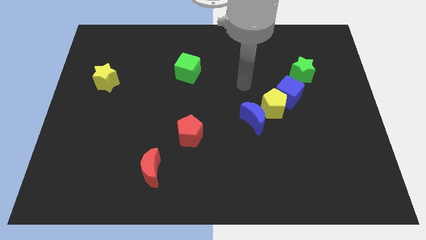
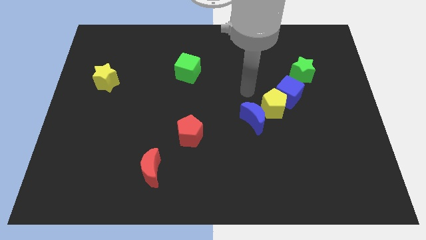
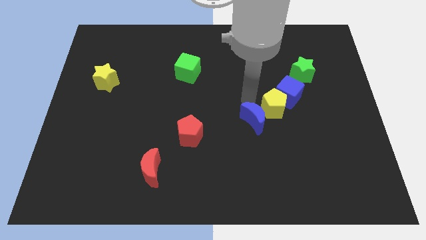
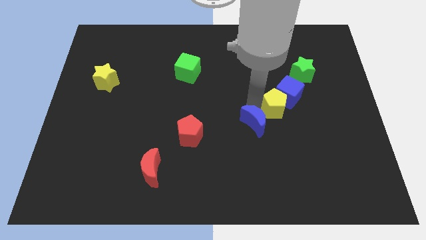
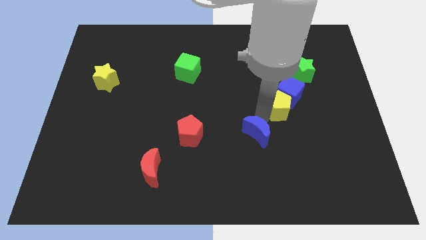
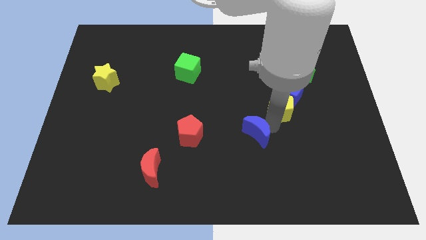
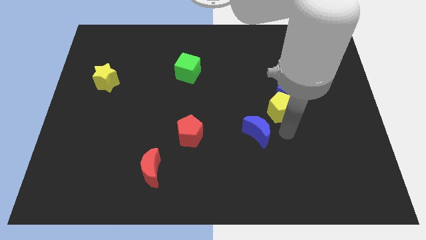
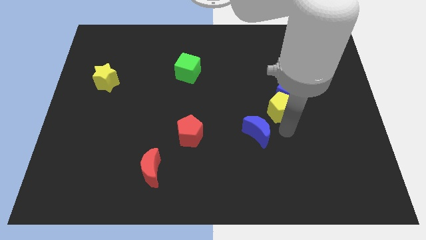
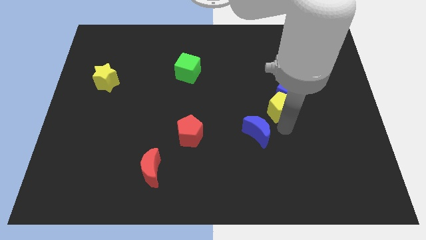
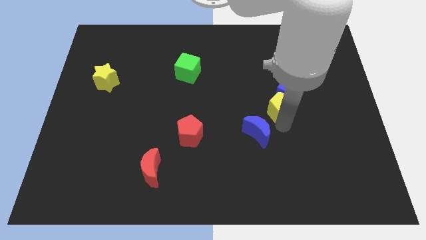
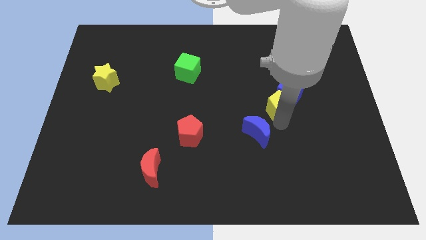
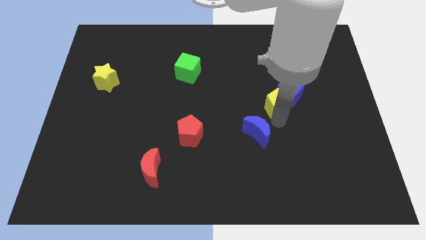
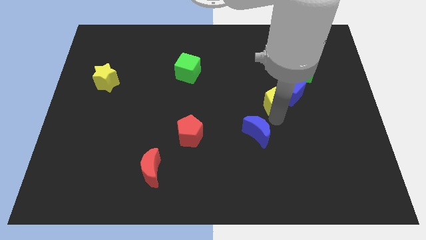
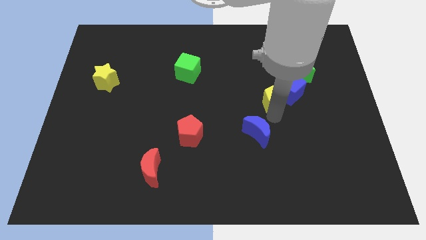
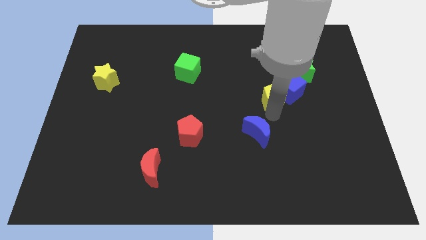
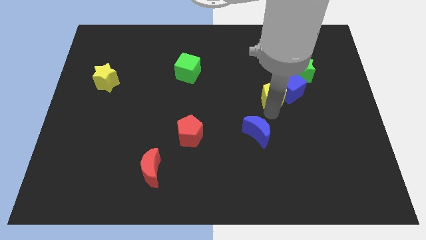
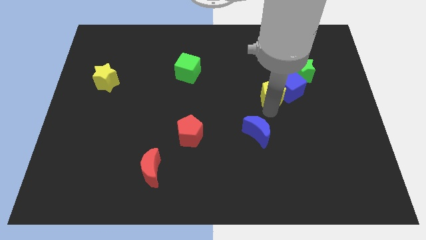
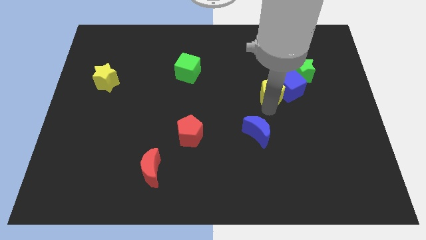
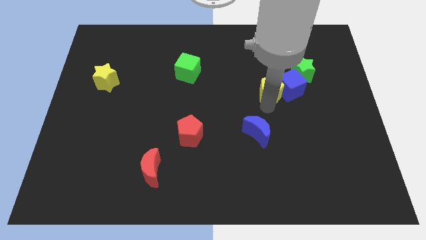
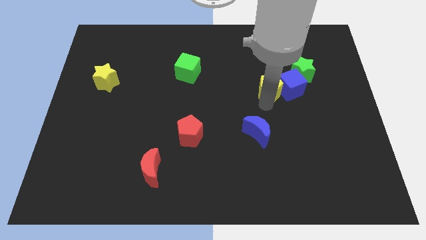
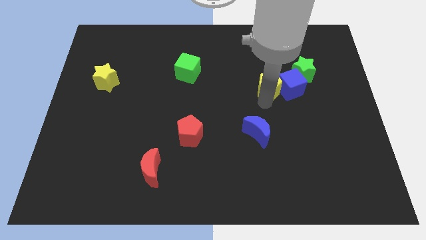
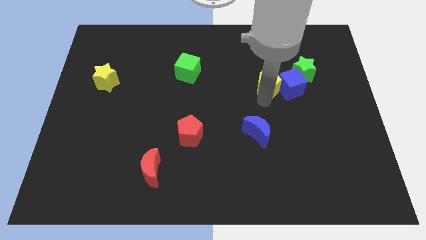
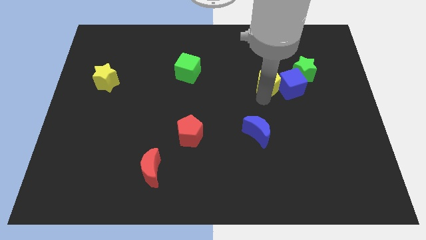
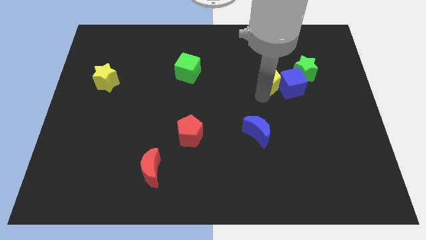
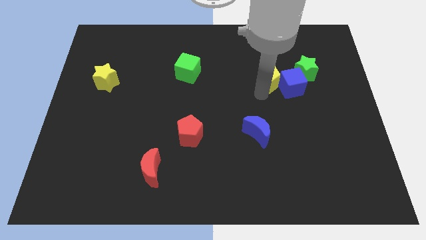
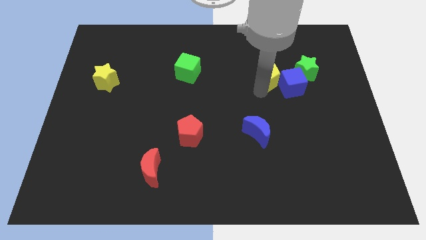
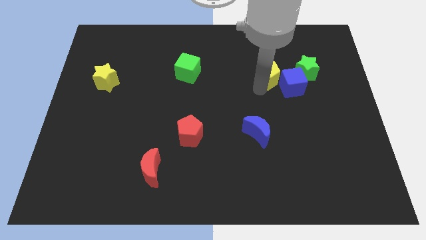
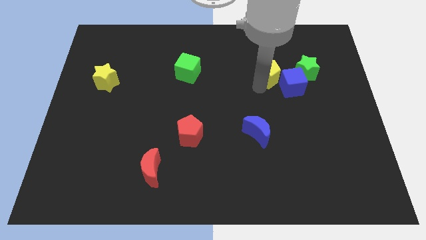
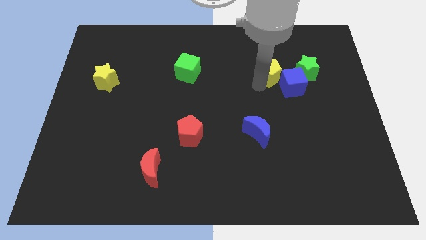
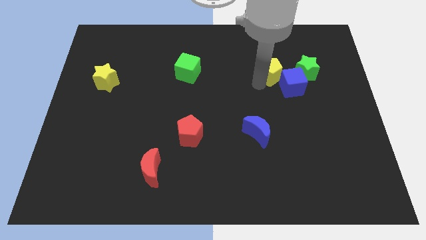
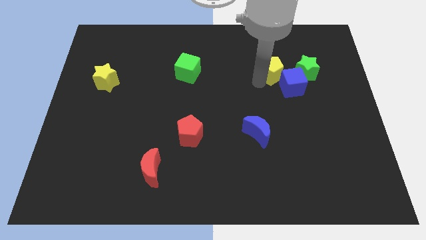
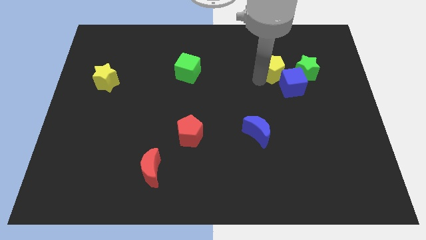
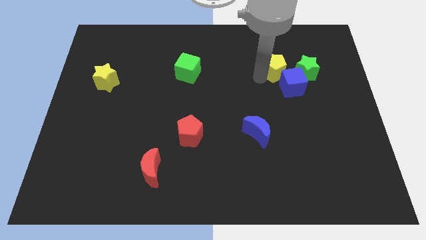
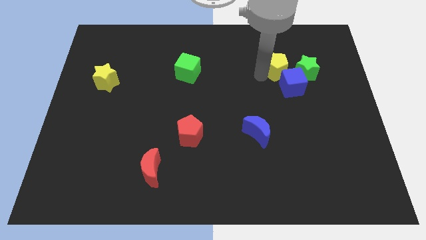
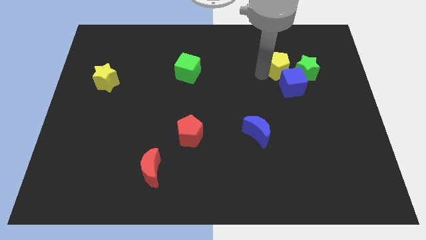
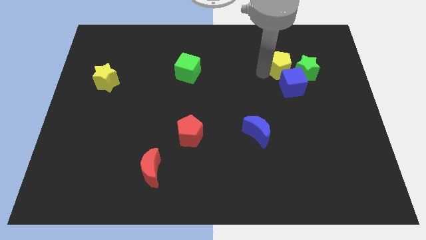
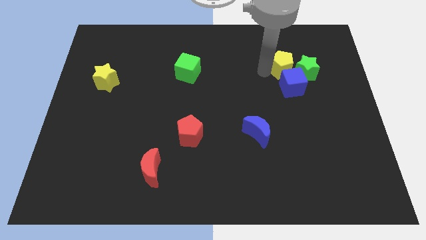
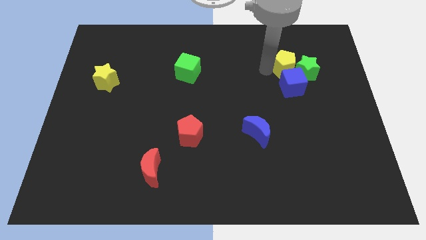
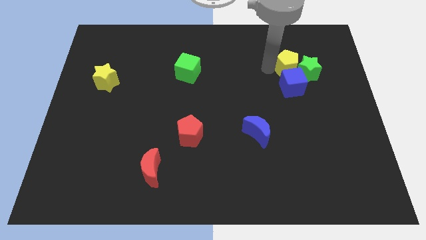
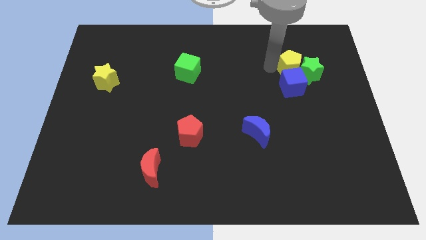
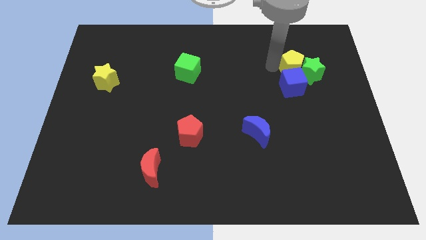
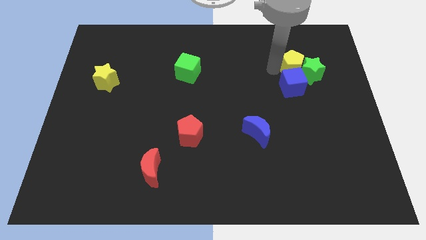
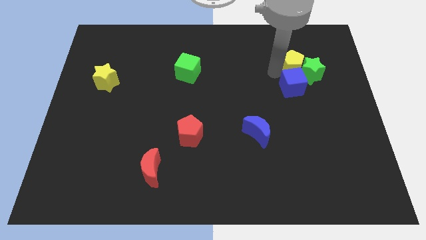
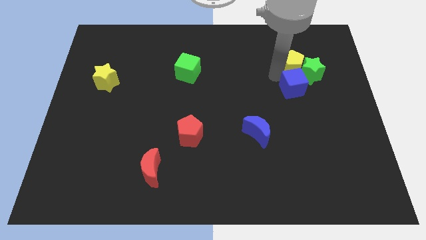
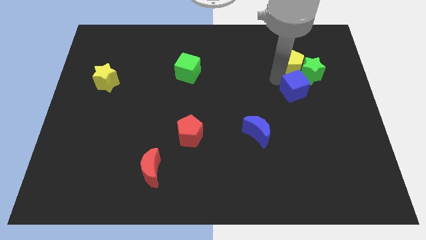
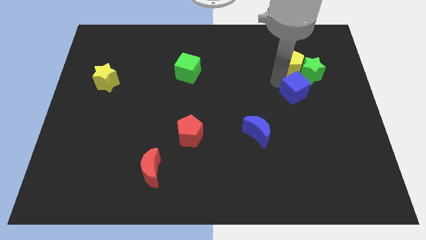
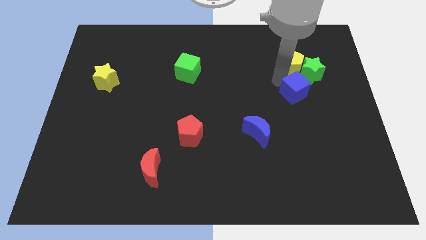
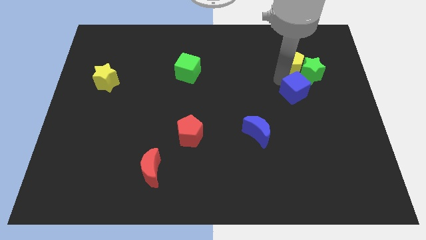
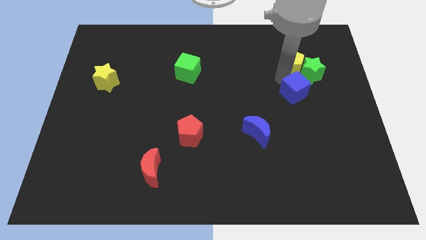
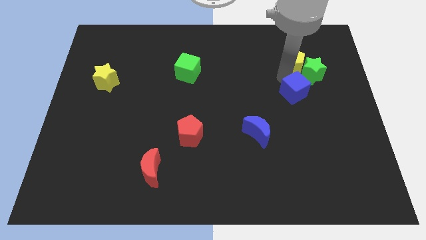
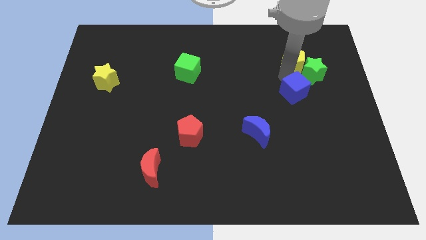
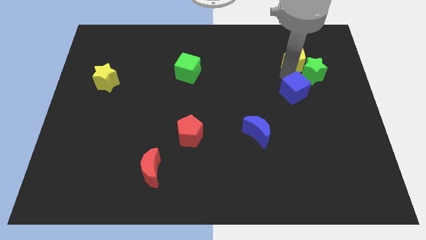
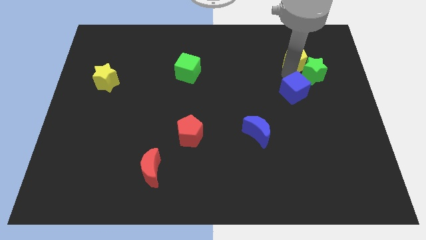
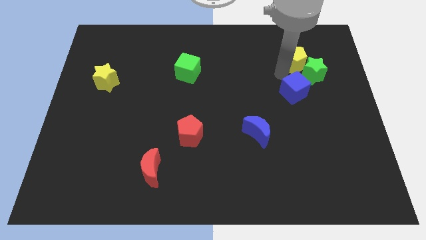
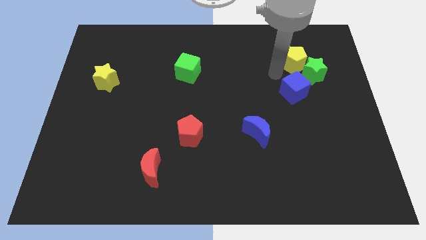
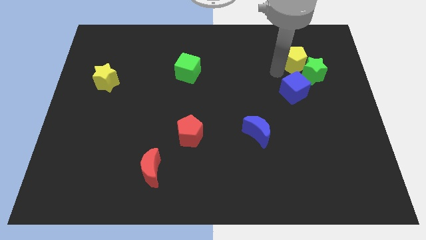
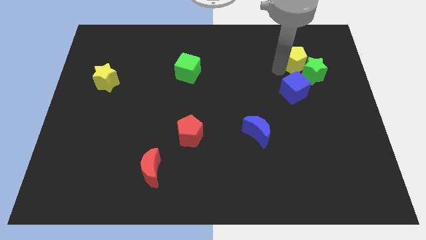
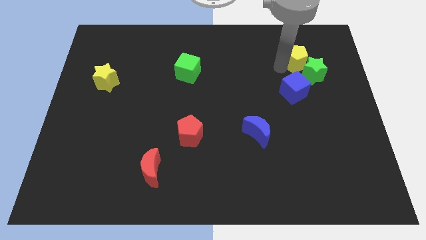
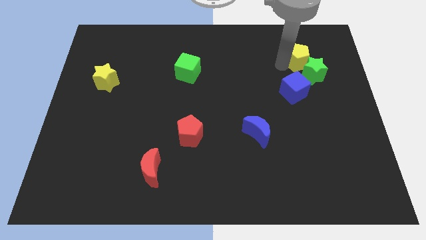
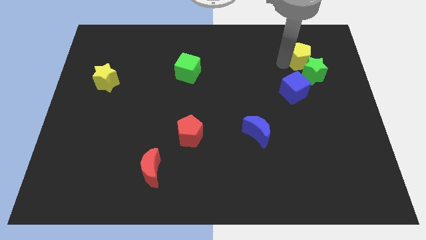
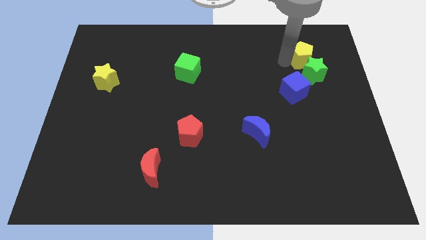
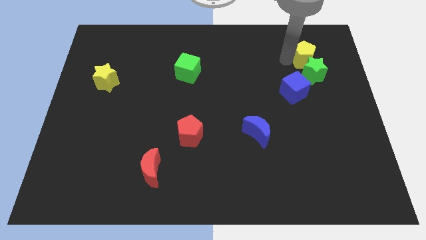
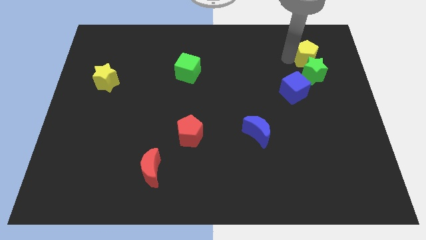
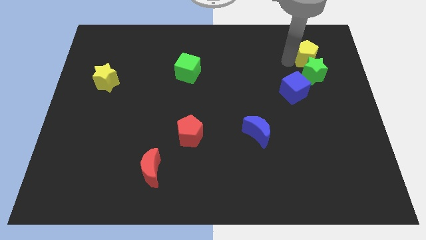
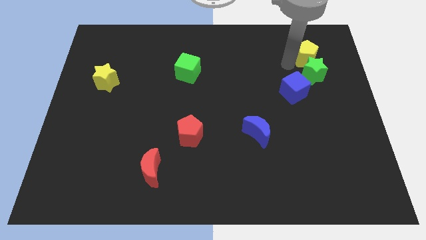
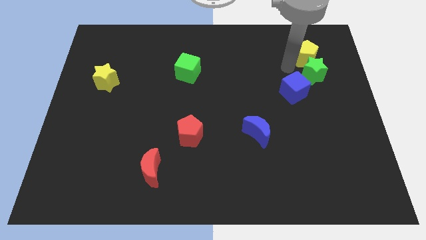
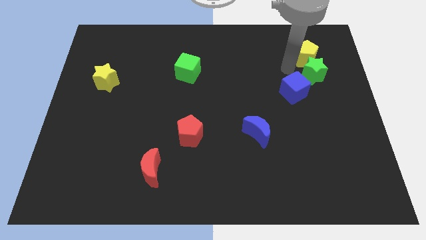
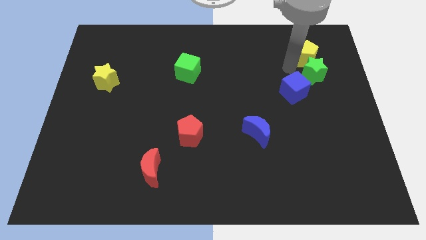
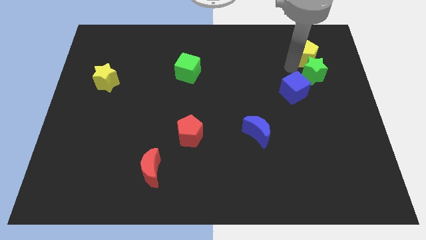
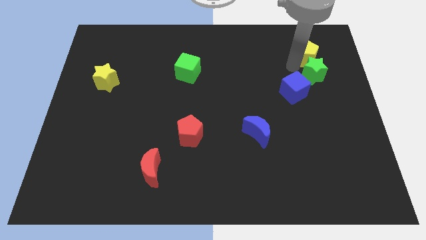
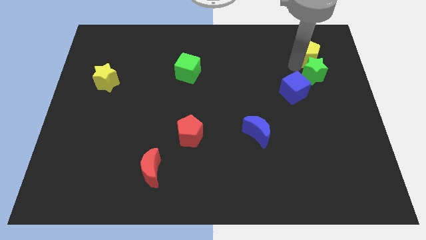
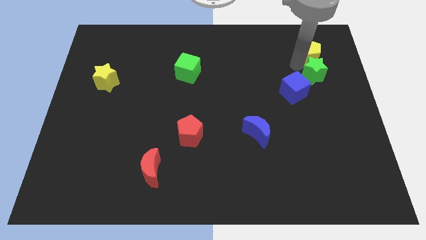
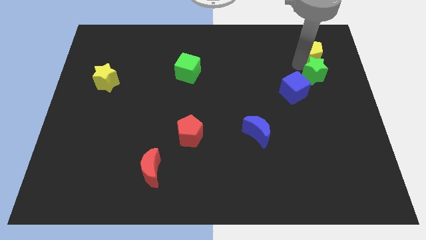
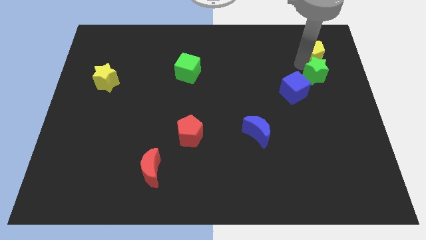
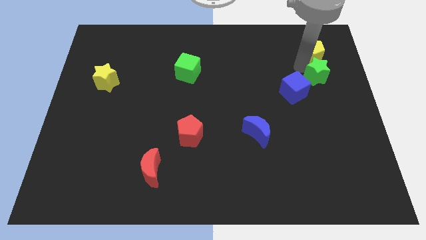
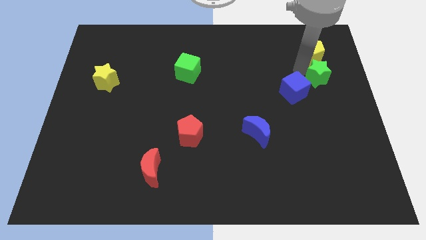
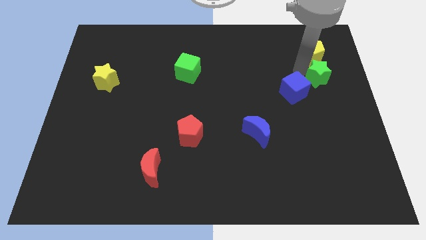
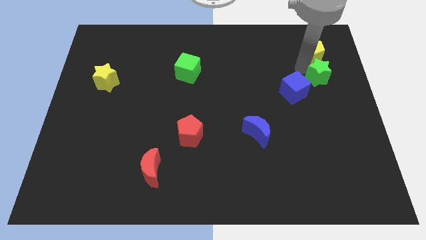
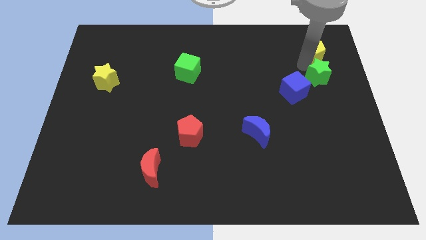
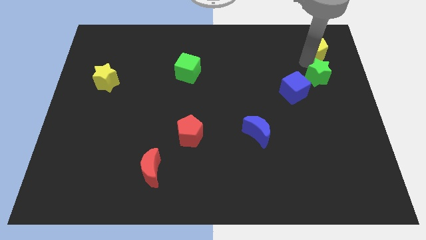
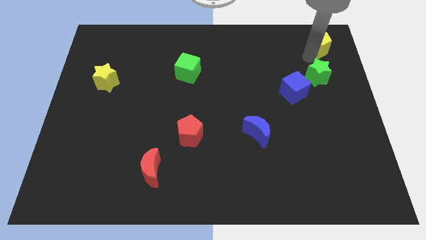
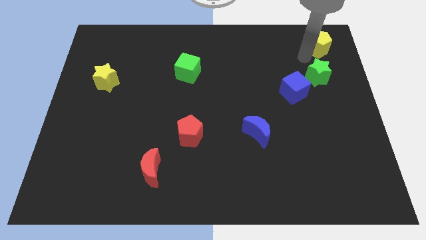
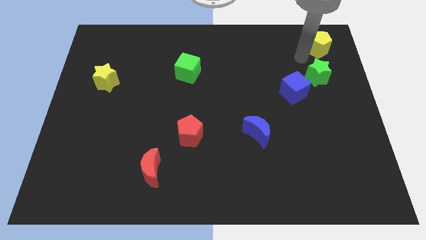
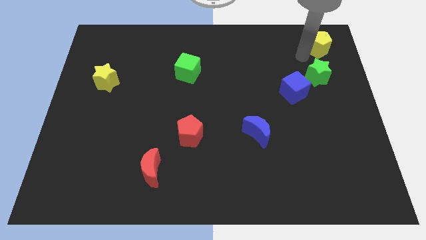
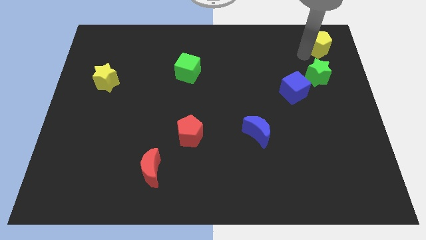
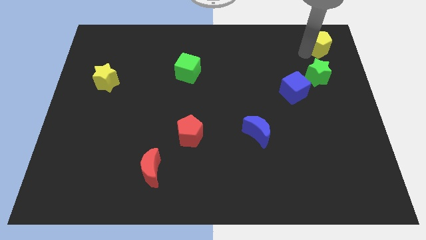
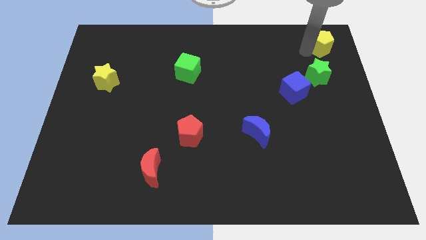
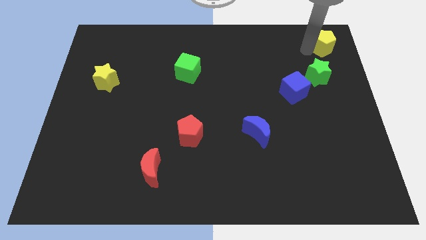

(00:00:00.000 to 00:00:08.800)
slide the yellow pentagon to the upper right corner
